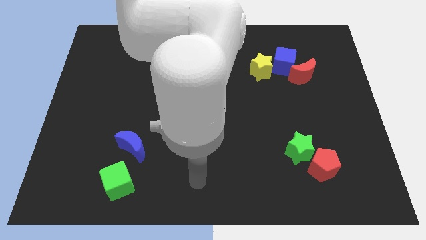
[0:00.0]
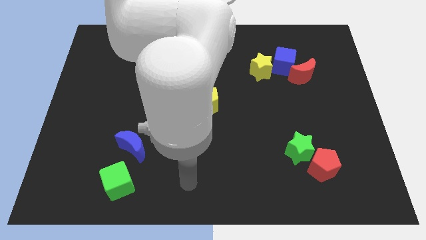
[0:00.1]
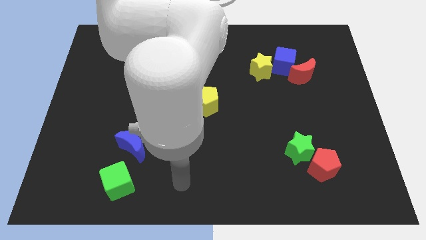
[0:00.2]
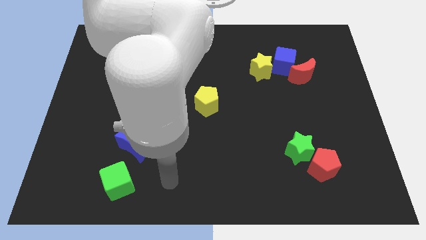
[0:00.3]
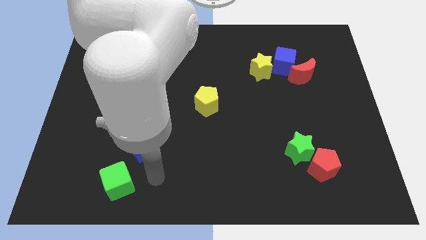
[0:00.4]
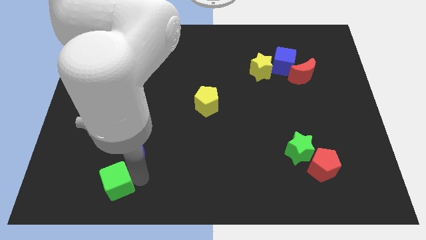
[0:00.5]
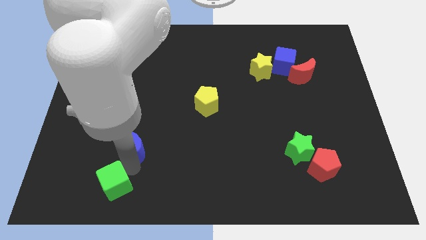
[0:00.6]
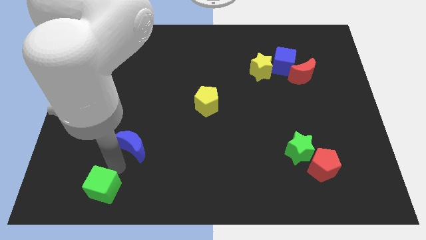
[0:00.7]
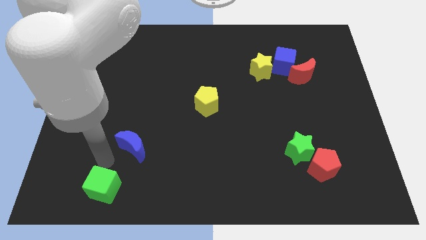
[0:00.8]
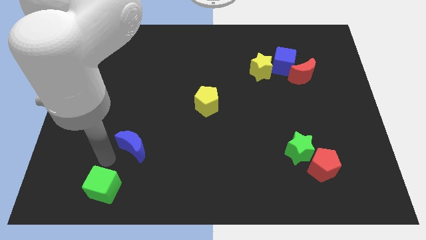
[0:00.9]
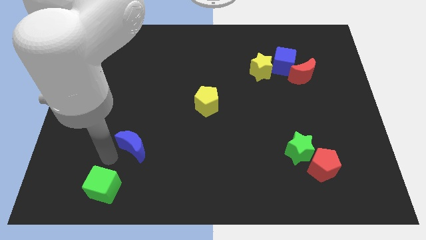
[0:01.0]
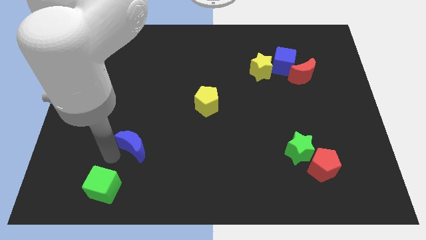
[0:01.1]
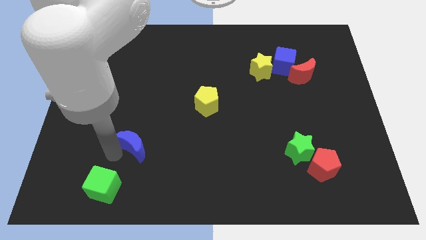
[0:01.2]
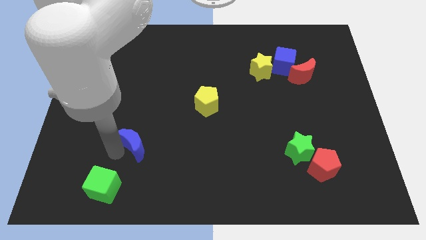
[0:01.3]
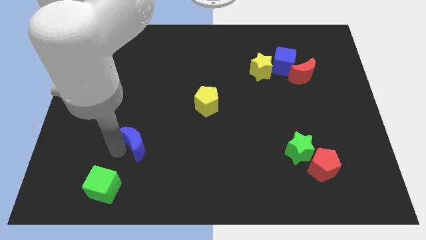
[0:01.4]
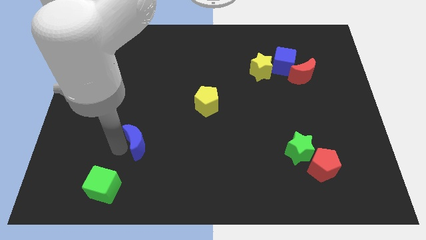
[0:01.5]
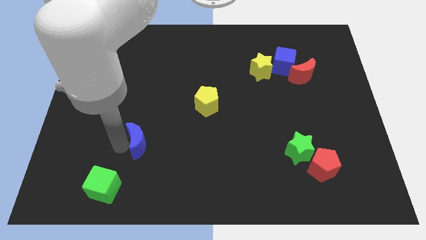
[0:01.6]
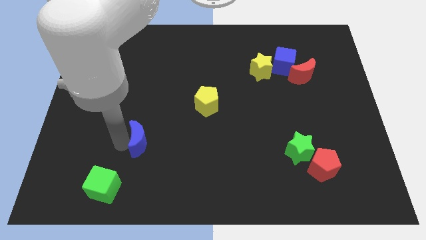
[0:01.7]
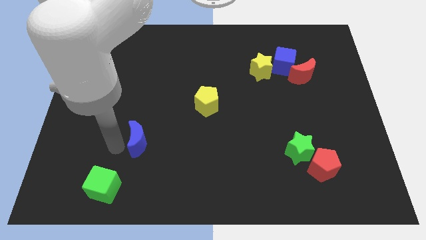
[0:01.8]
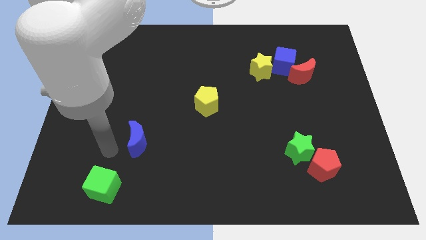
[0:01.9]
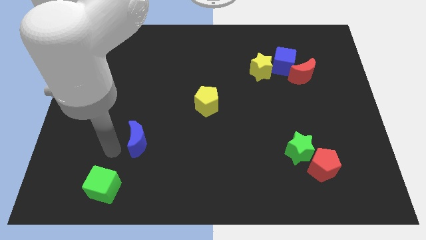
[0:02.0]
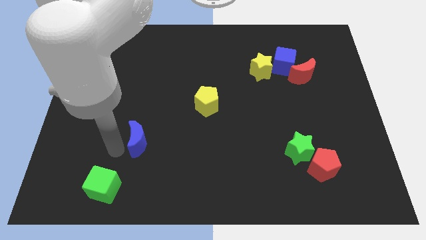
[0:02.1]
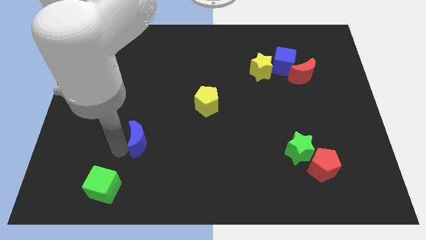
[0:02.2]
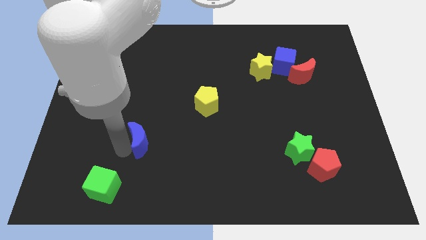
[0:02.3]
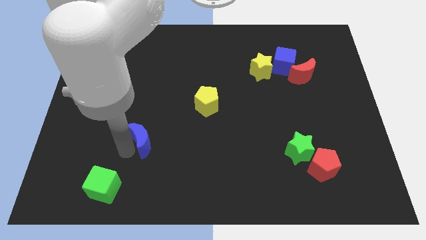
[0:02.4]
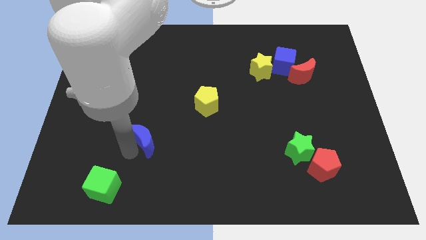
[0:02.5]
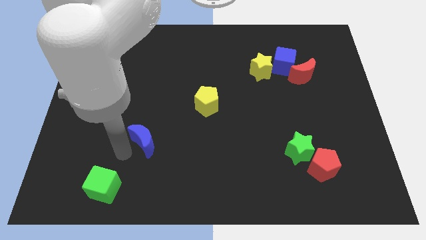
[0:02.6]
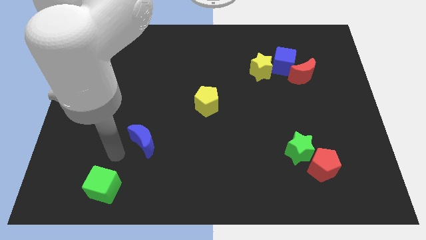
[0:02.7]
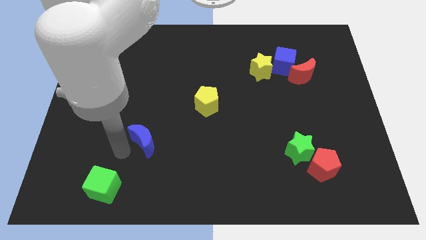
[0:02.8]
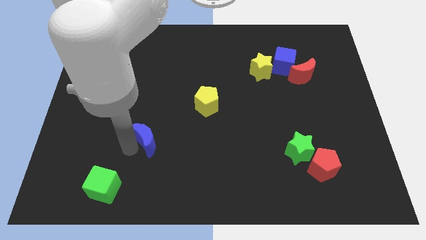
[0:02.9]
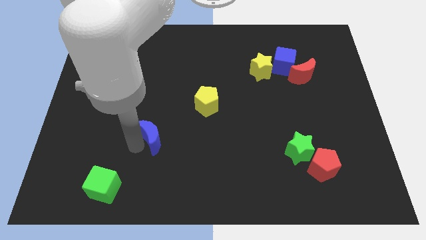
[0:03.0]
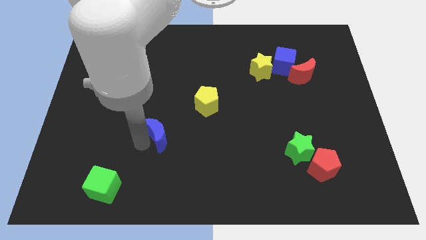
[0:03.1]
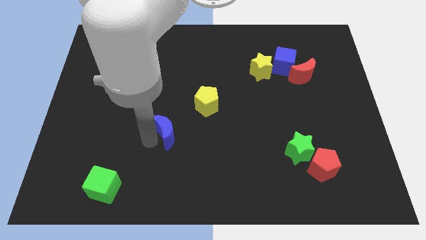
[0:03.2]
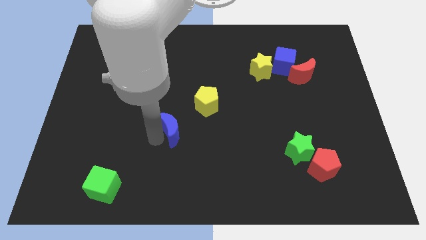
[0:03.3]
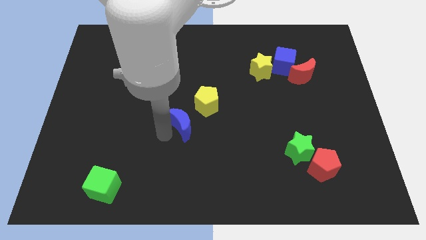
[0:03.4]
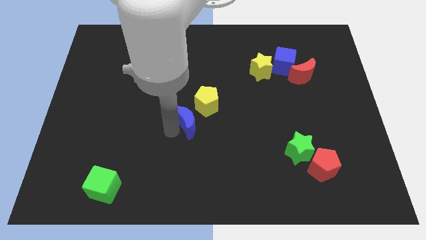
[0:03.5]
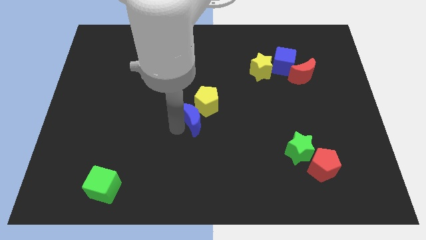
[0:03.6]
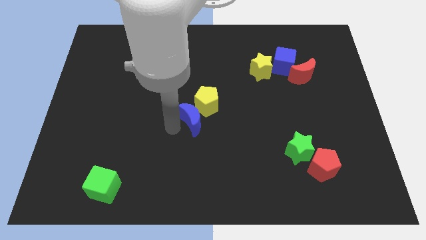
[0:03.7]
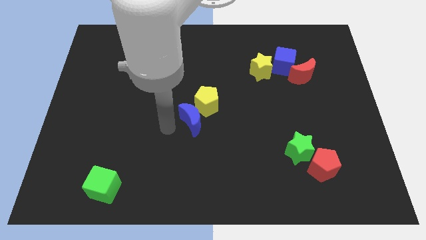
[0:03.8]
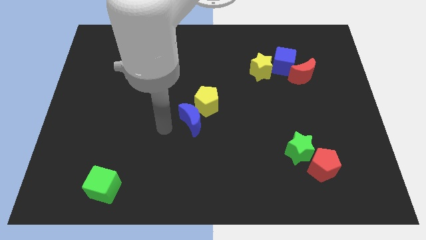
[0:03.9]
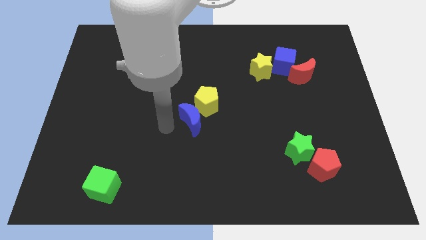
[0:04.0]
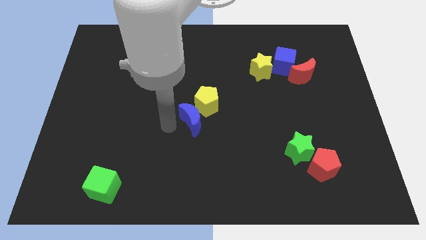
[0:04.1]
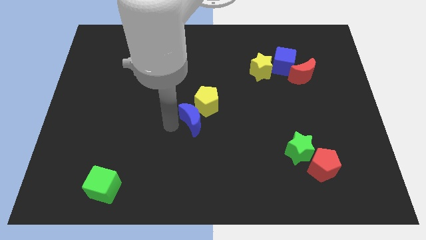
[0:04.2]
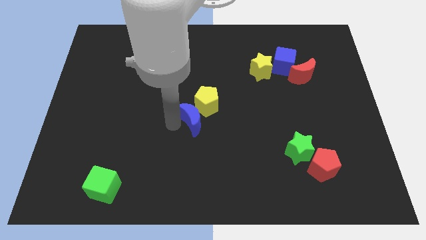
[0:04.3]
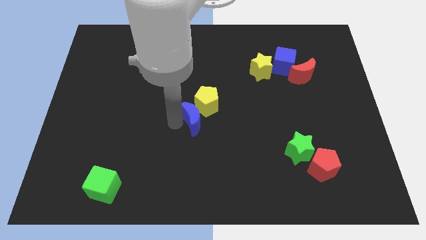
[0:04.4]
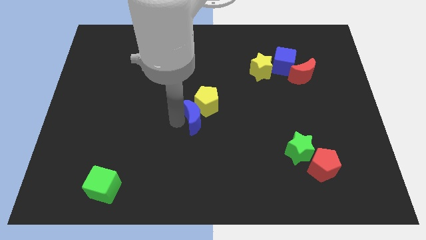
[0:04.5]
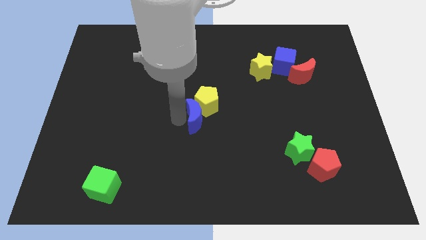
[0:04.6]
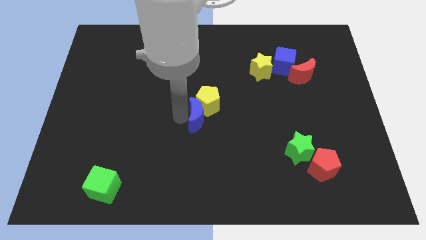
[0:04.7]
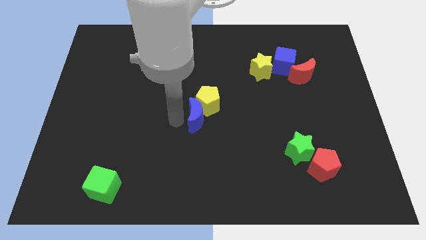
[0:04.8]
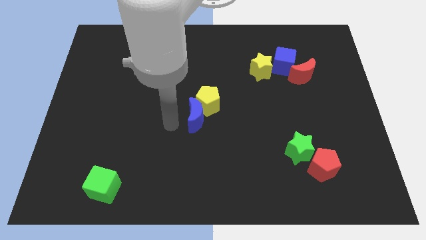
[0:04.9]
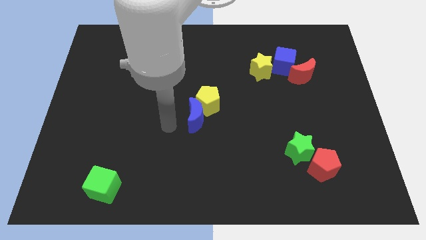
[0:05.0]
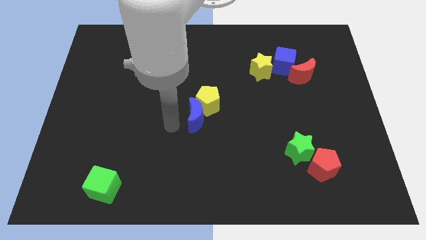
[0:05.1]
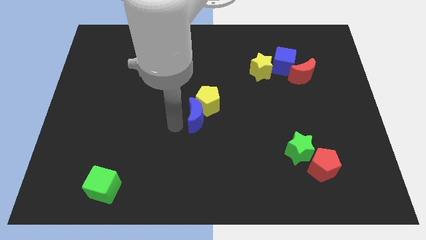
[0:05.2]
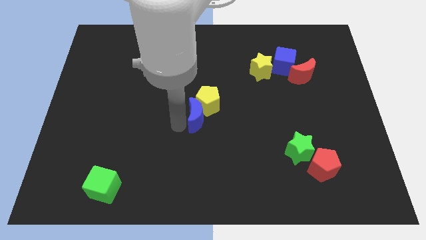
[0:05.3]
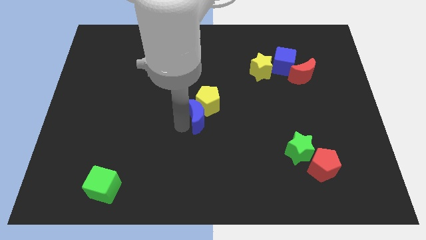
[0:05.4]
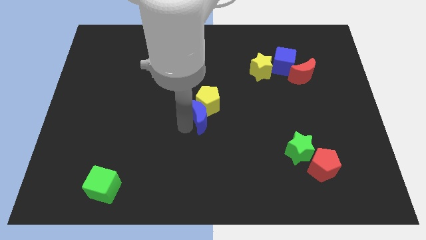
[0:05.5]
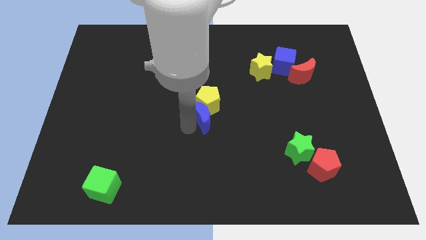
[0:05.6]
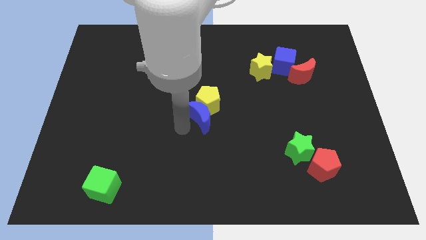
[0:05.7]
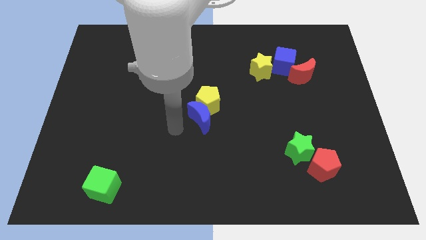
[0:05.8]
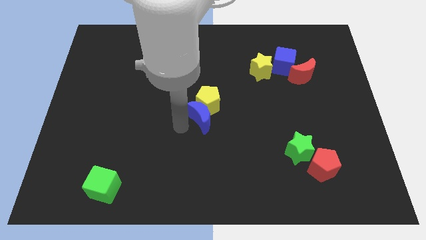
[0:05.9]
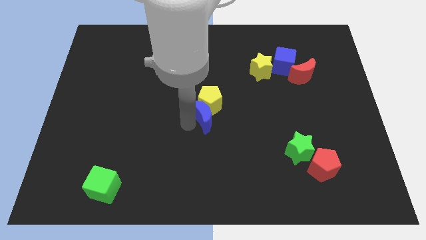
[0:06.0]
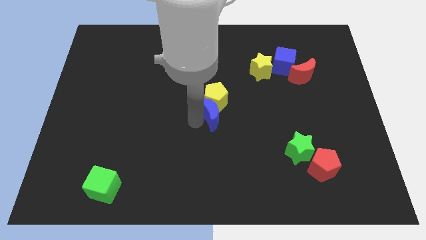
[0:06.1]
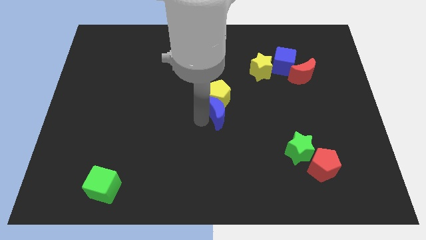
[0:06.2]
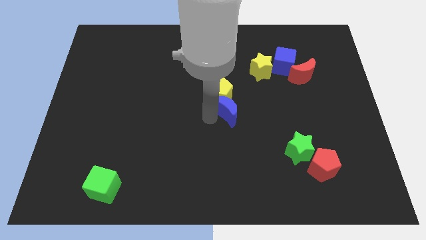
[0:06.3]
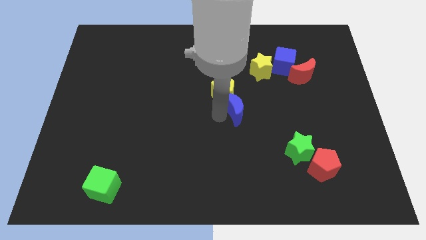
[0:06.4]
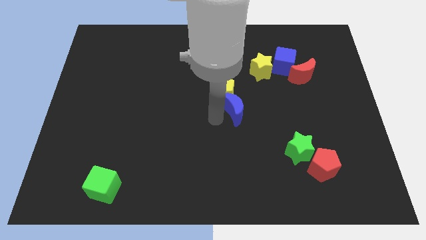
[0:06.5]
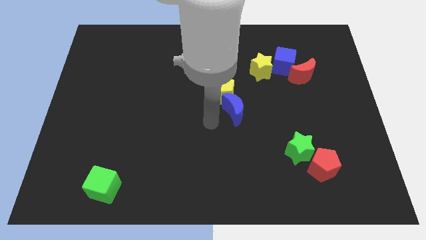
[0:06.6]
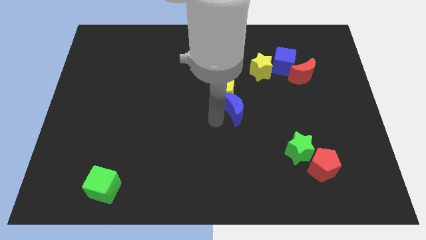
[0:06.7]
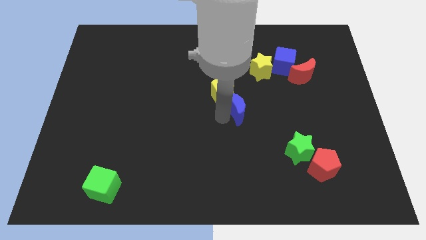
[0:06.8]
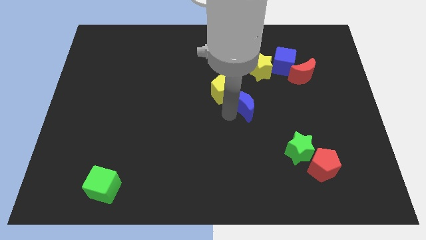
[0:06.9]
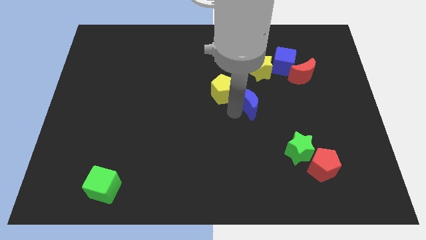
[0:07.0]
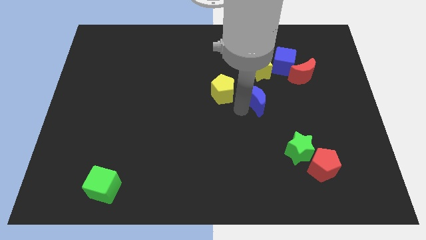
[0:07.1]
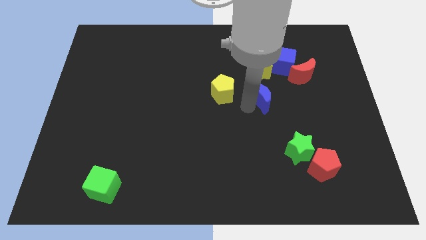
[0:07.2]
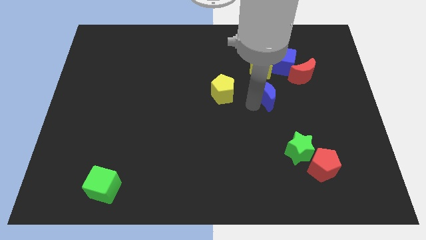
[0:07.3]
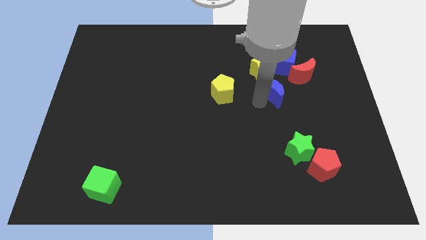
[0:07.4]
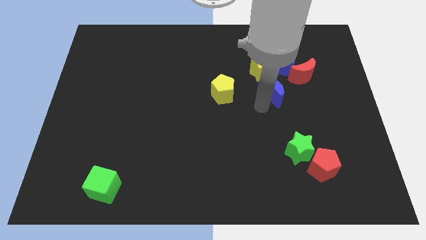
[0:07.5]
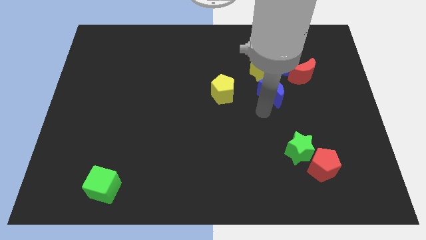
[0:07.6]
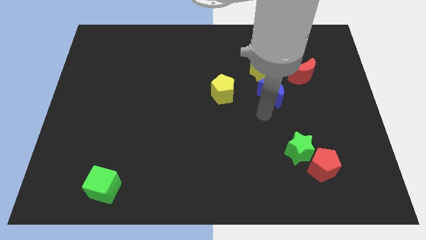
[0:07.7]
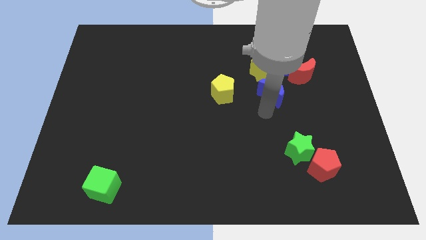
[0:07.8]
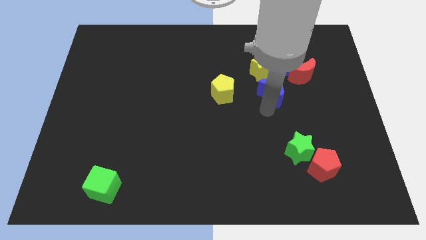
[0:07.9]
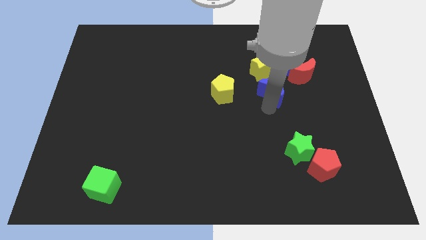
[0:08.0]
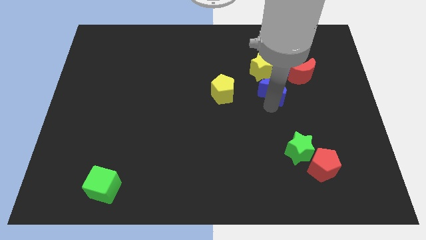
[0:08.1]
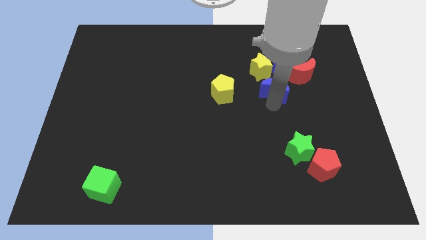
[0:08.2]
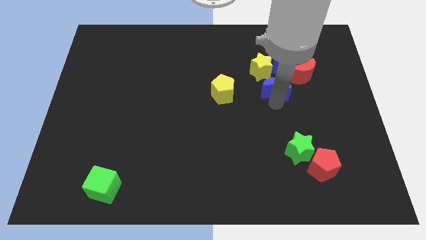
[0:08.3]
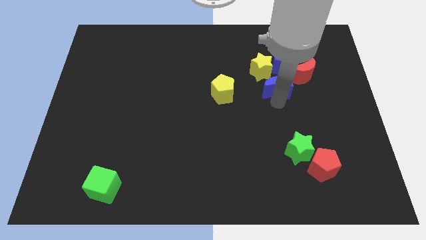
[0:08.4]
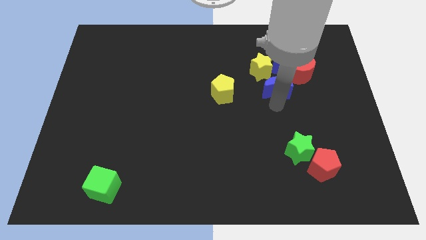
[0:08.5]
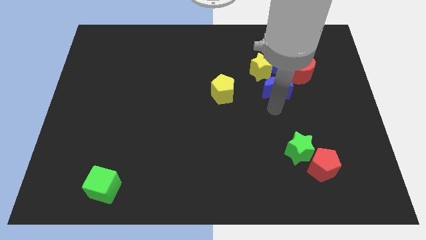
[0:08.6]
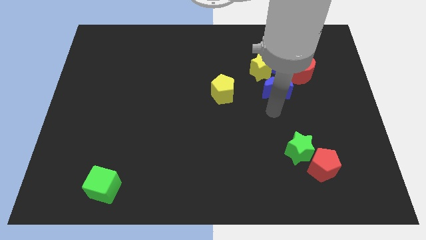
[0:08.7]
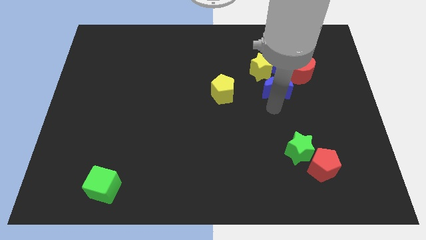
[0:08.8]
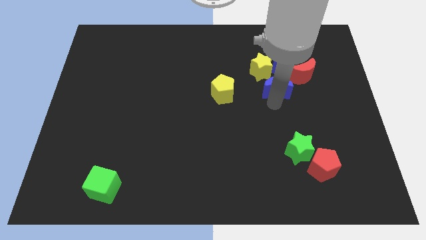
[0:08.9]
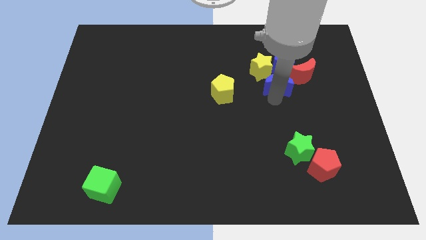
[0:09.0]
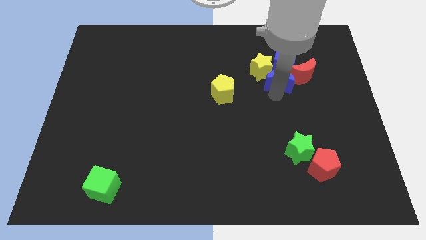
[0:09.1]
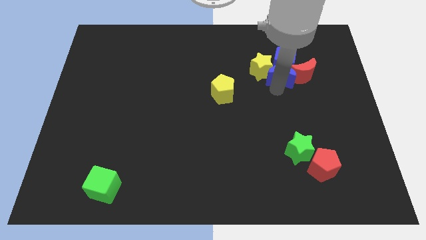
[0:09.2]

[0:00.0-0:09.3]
move the blue moon next to the blue cube
